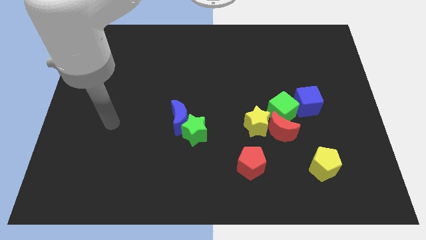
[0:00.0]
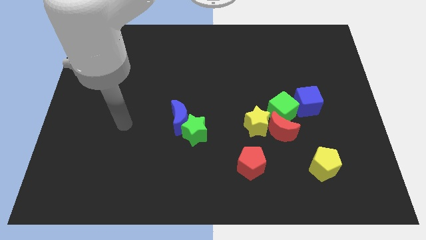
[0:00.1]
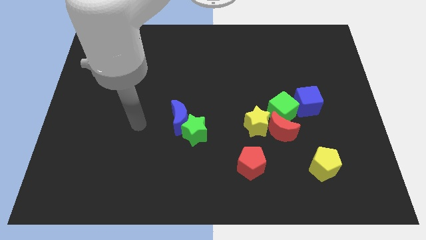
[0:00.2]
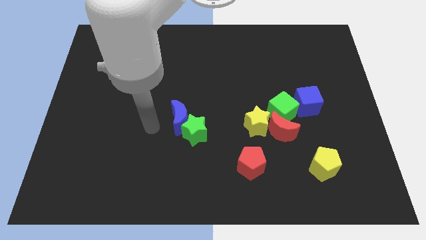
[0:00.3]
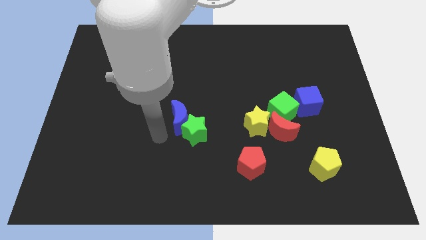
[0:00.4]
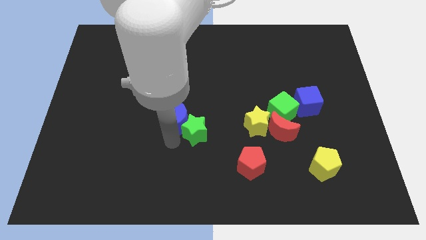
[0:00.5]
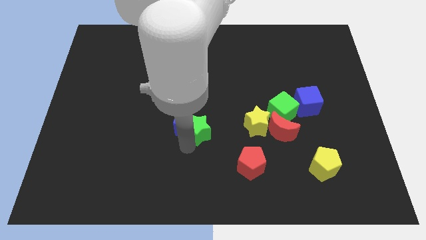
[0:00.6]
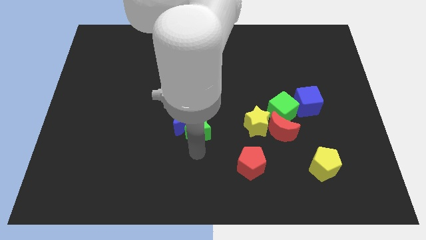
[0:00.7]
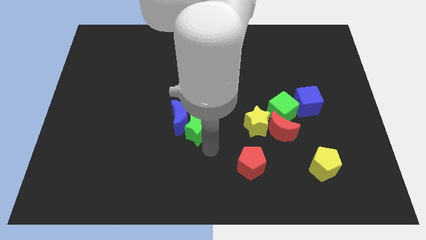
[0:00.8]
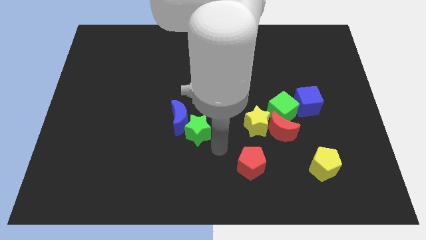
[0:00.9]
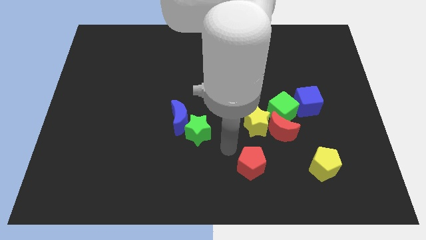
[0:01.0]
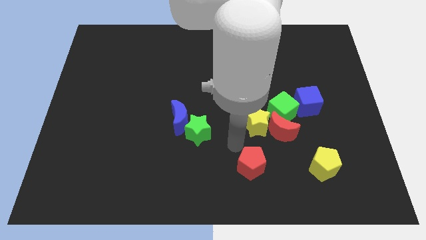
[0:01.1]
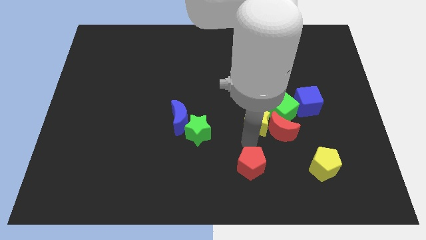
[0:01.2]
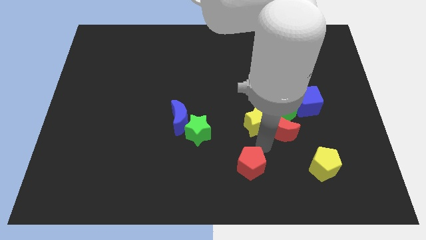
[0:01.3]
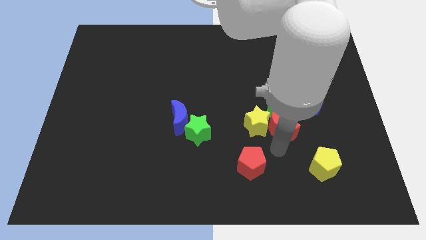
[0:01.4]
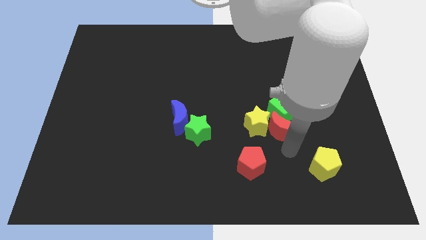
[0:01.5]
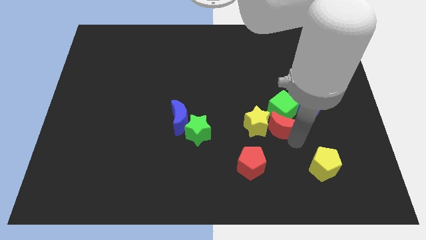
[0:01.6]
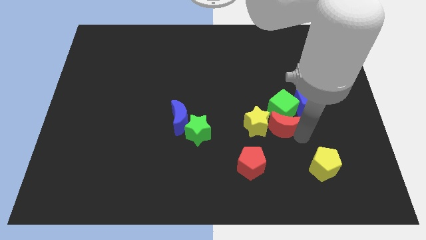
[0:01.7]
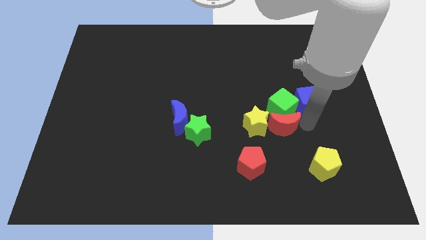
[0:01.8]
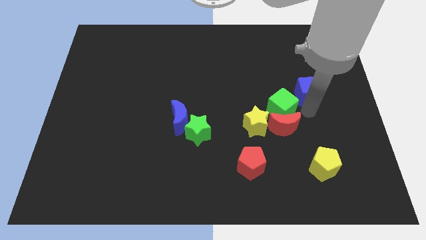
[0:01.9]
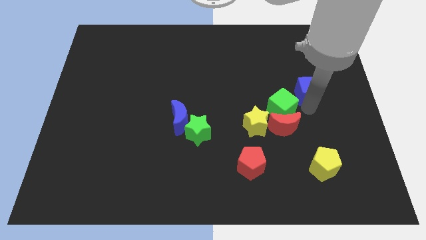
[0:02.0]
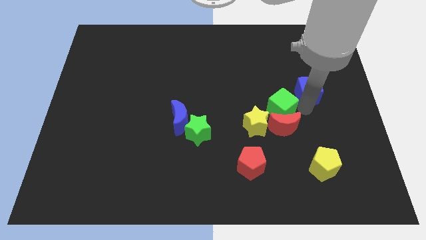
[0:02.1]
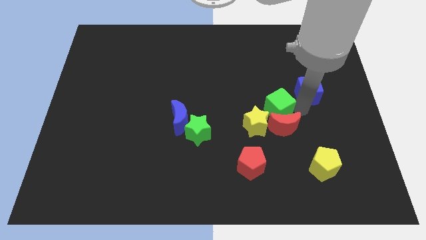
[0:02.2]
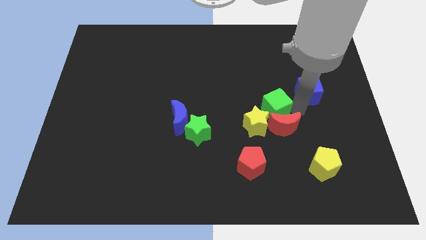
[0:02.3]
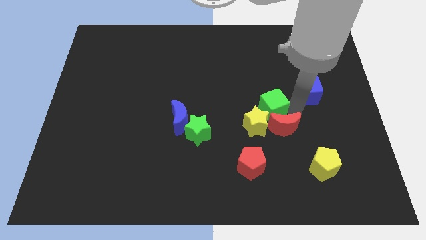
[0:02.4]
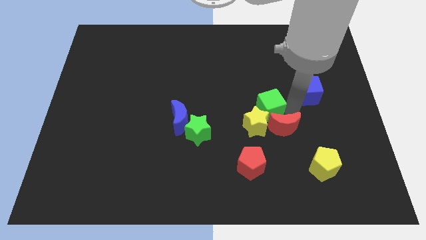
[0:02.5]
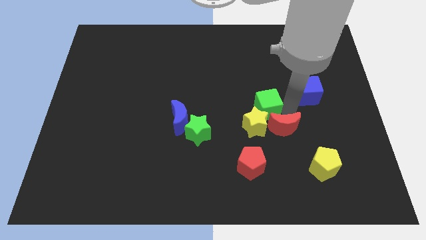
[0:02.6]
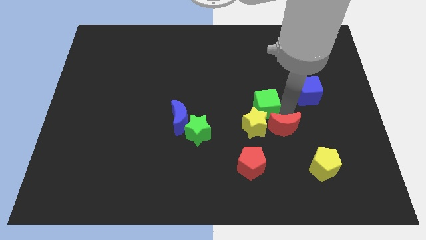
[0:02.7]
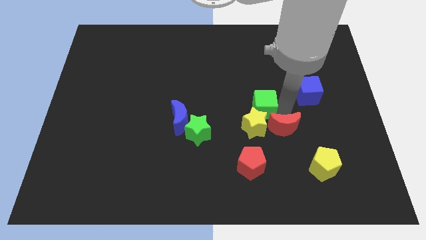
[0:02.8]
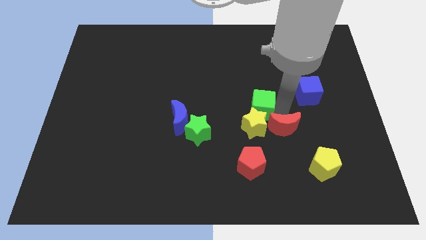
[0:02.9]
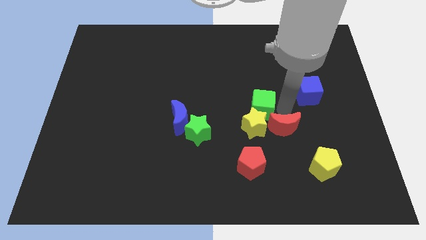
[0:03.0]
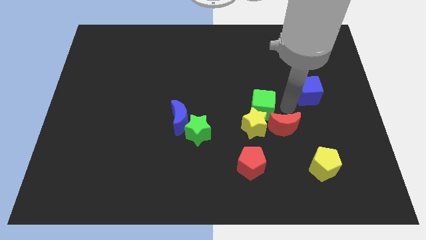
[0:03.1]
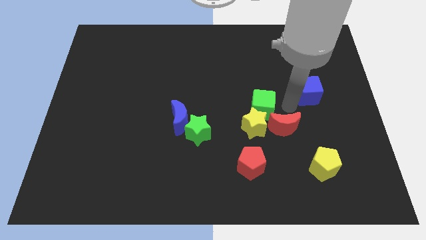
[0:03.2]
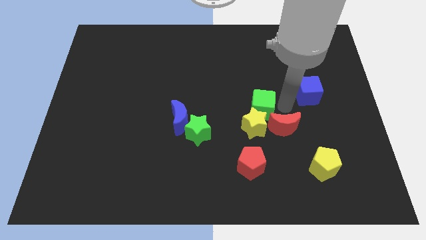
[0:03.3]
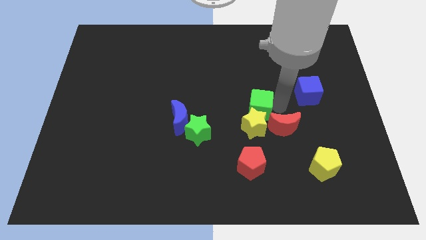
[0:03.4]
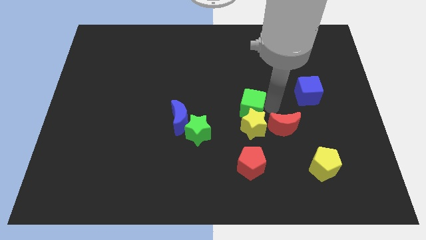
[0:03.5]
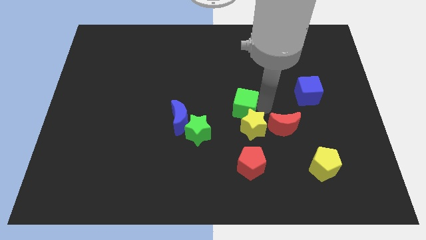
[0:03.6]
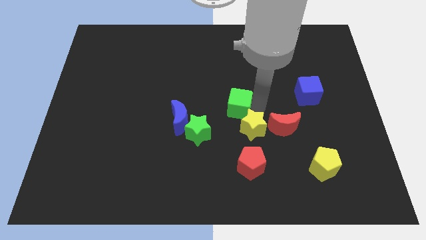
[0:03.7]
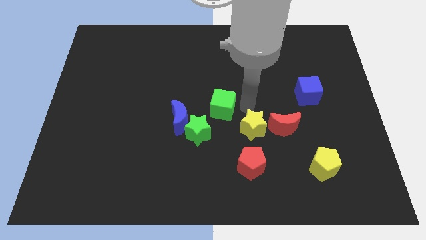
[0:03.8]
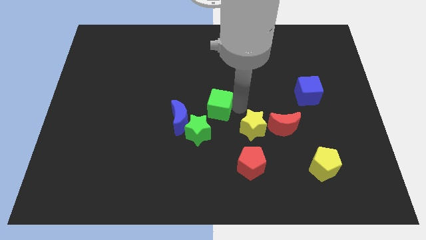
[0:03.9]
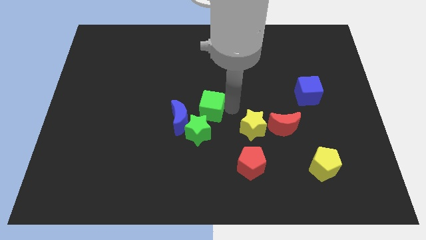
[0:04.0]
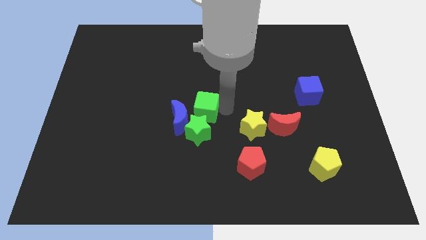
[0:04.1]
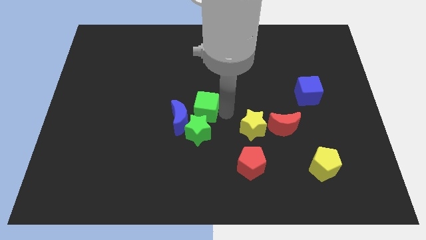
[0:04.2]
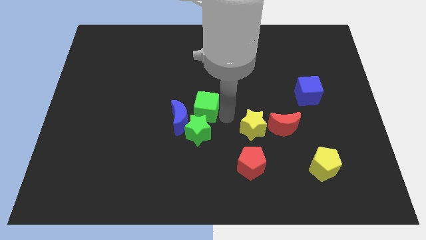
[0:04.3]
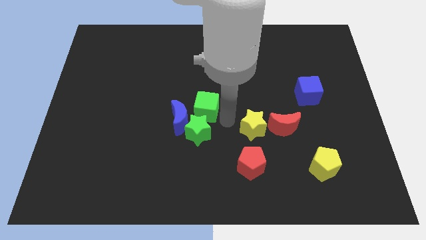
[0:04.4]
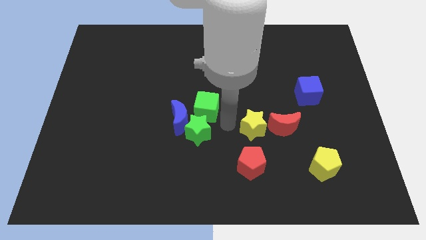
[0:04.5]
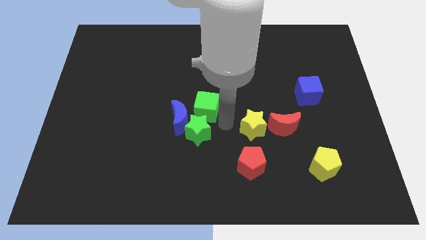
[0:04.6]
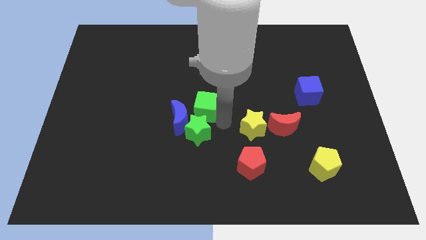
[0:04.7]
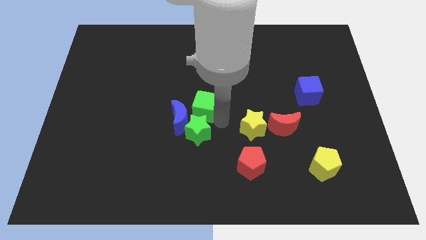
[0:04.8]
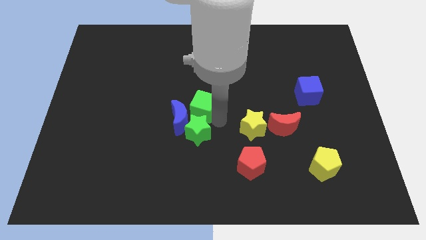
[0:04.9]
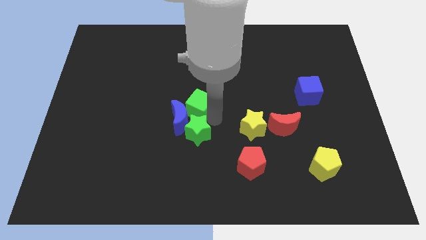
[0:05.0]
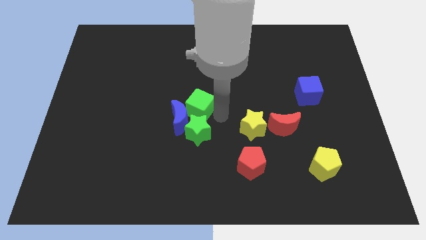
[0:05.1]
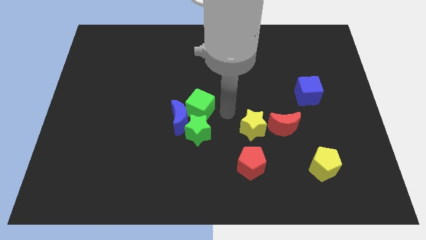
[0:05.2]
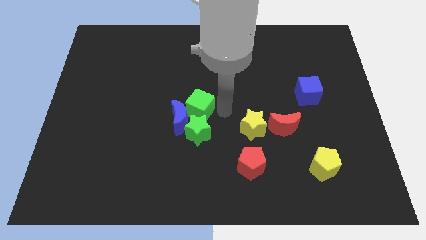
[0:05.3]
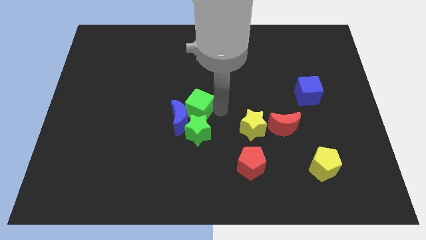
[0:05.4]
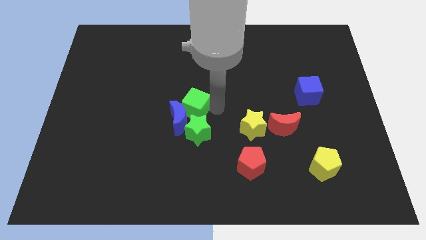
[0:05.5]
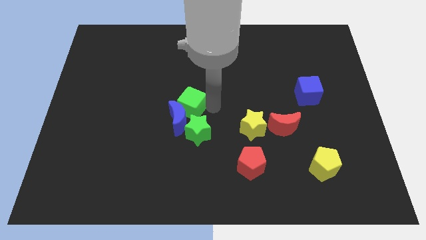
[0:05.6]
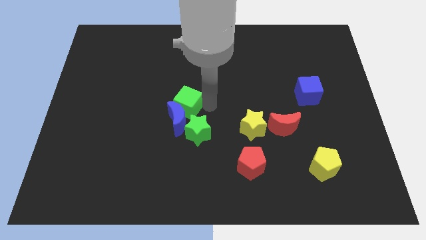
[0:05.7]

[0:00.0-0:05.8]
put the green cube to the top left side of the blue moon

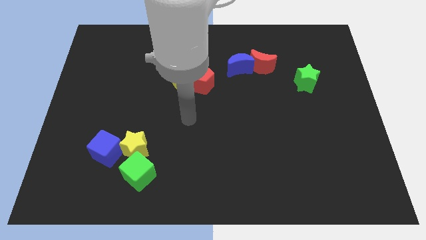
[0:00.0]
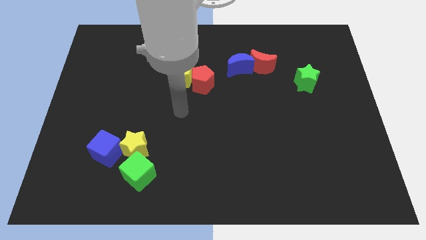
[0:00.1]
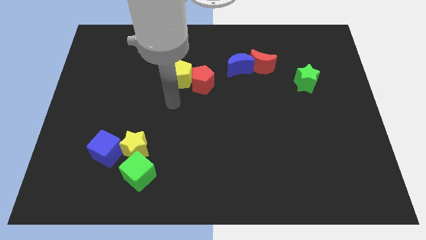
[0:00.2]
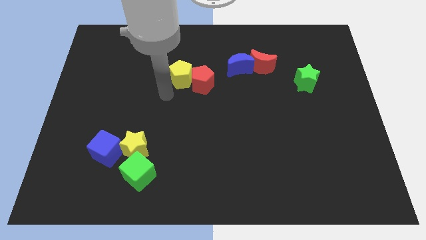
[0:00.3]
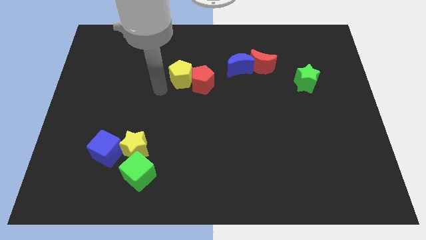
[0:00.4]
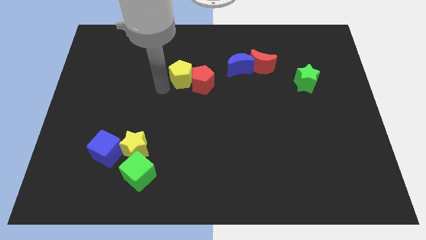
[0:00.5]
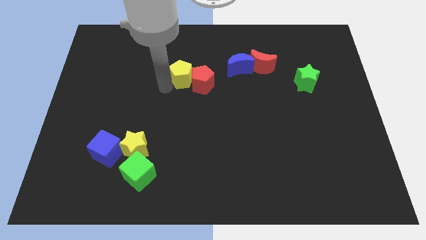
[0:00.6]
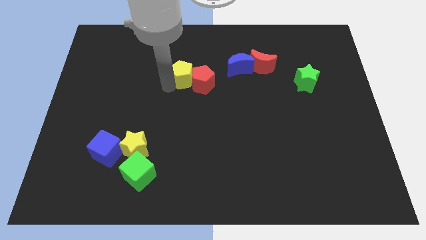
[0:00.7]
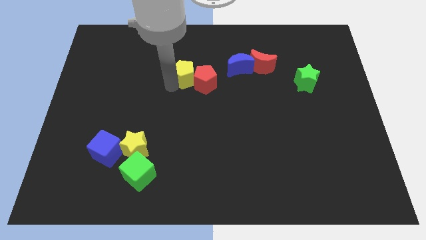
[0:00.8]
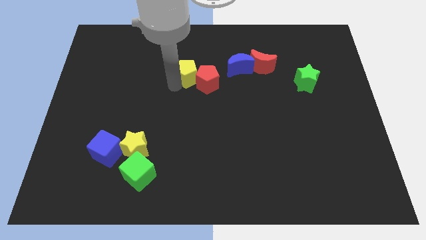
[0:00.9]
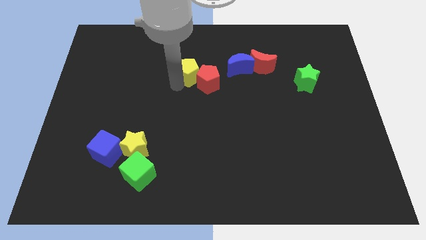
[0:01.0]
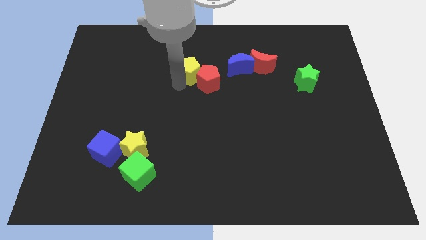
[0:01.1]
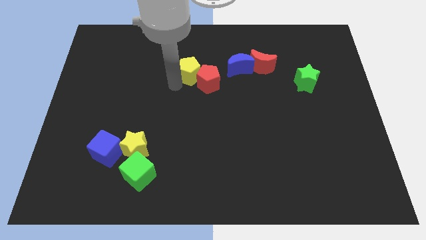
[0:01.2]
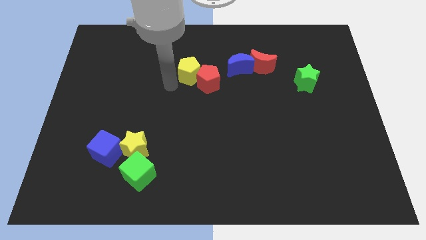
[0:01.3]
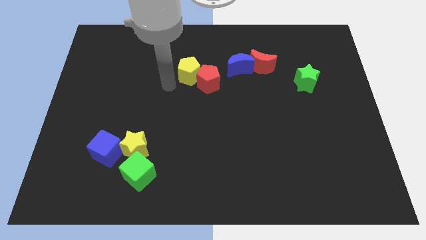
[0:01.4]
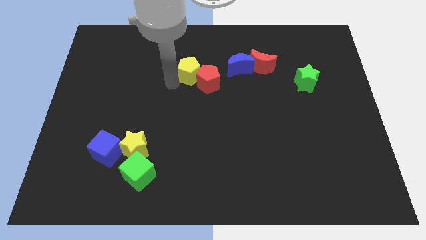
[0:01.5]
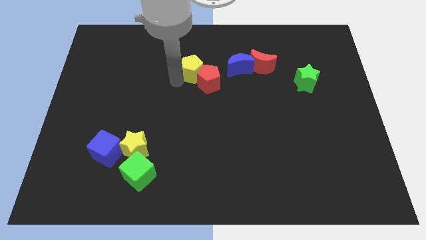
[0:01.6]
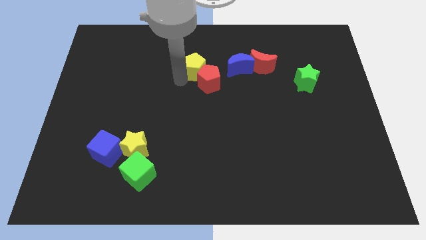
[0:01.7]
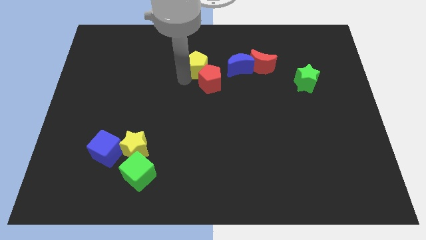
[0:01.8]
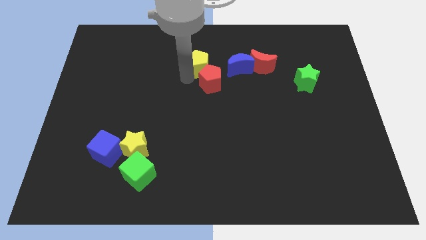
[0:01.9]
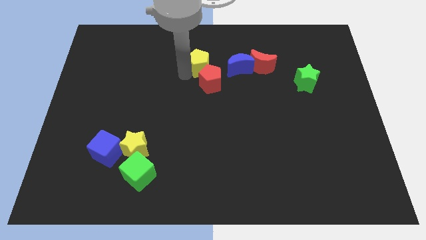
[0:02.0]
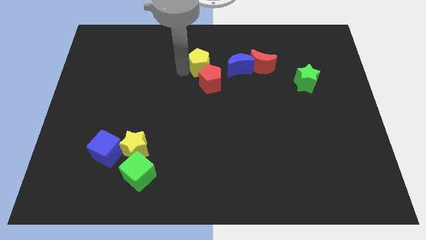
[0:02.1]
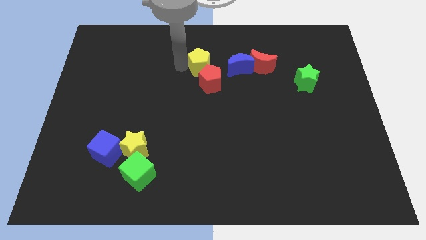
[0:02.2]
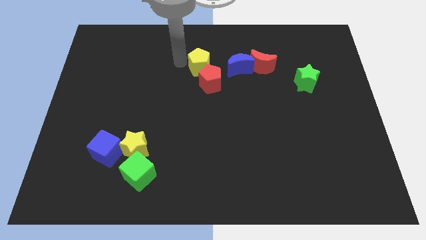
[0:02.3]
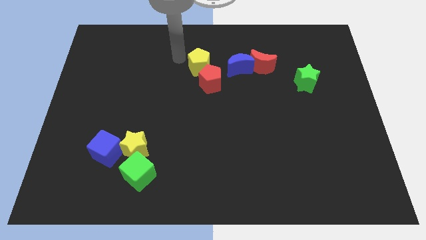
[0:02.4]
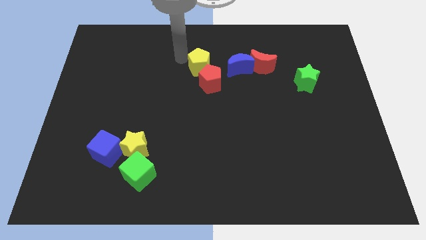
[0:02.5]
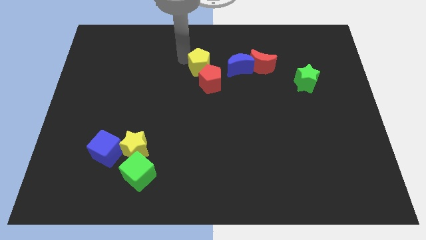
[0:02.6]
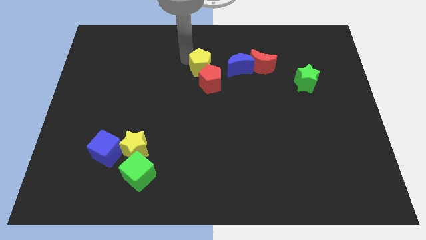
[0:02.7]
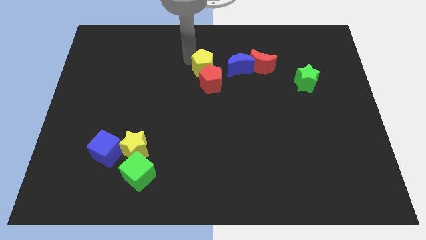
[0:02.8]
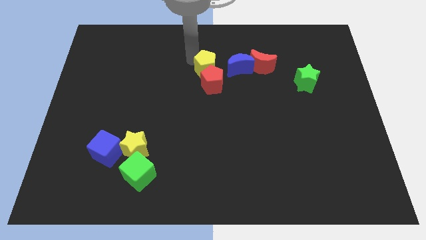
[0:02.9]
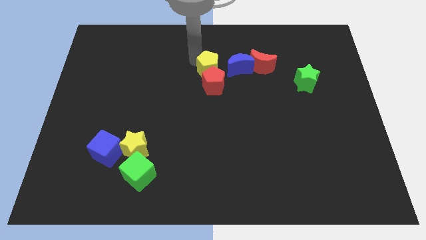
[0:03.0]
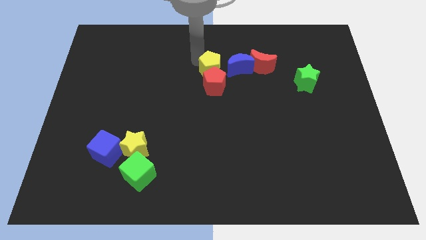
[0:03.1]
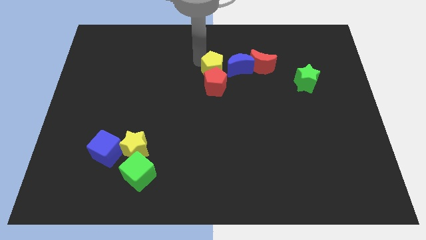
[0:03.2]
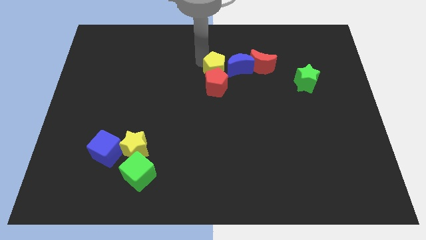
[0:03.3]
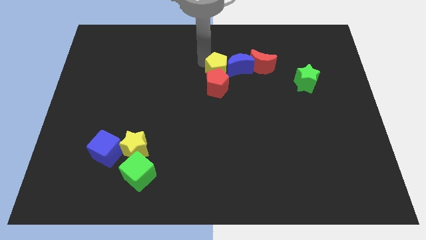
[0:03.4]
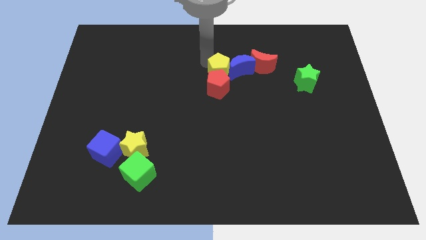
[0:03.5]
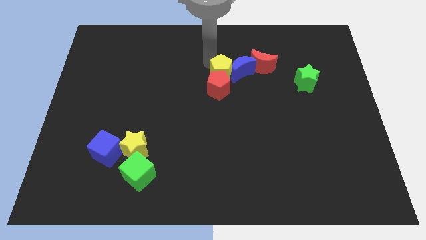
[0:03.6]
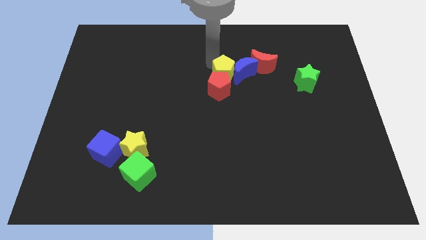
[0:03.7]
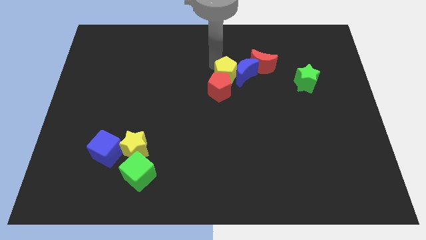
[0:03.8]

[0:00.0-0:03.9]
slide the yellow pentagon diagonally down and to the left of the red moon
